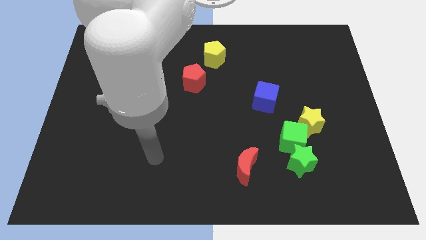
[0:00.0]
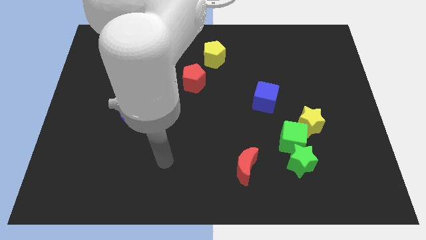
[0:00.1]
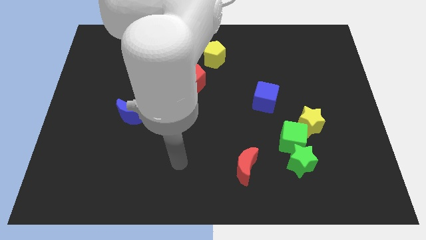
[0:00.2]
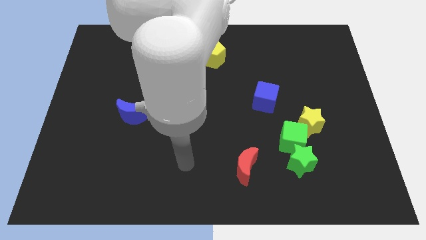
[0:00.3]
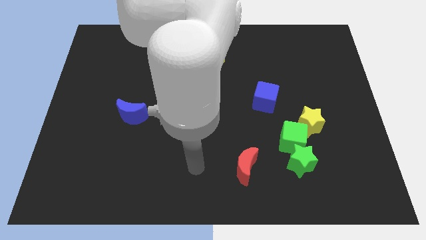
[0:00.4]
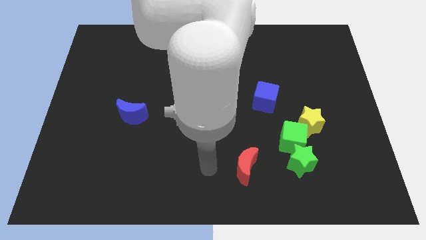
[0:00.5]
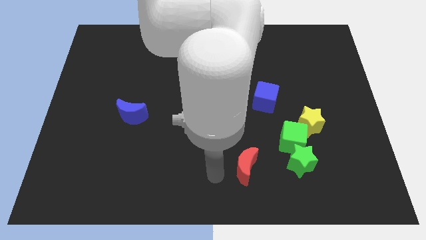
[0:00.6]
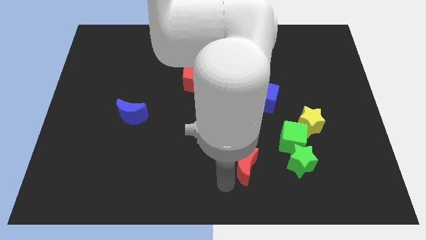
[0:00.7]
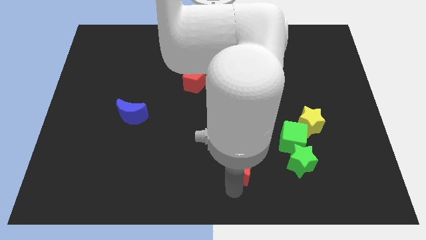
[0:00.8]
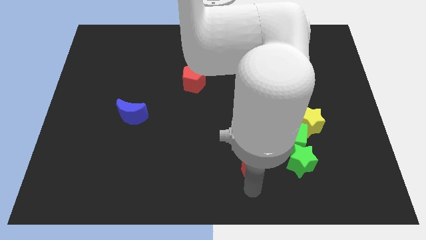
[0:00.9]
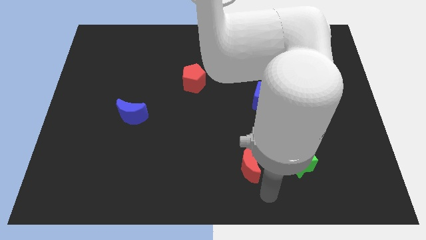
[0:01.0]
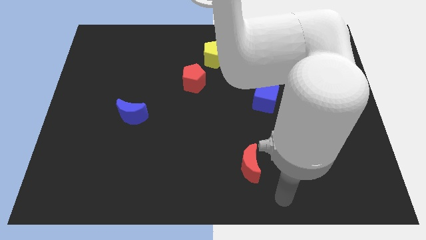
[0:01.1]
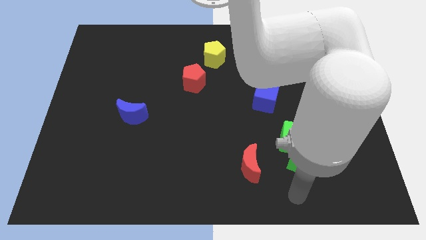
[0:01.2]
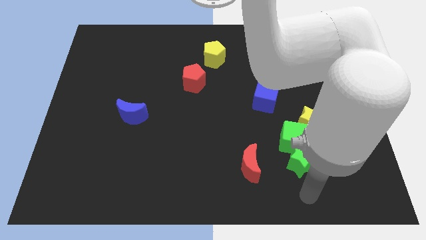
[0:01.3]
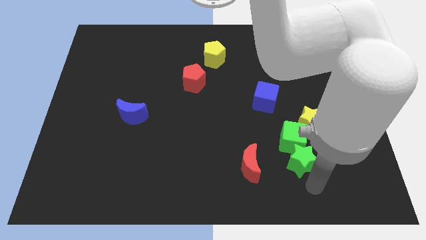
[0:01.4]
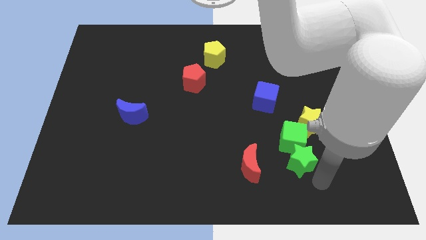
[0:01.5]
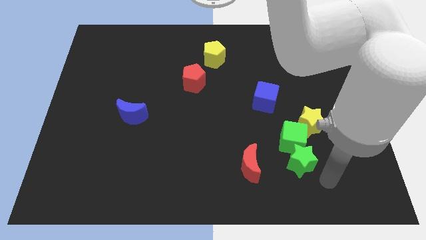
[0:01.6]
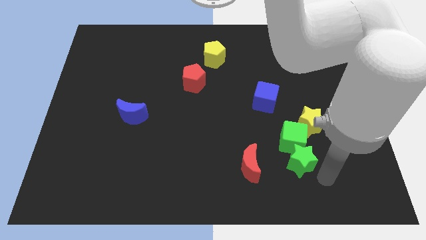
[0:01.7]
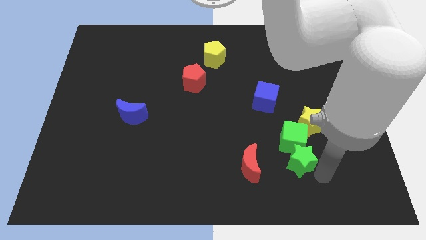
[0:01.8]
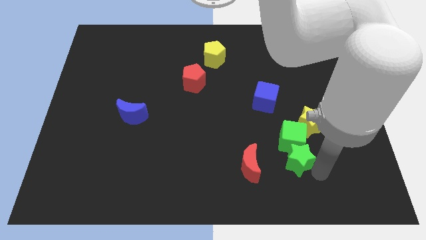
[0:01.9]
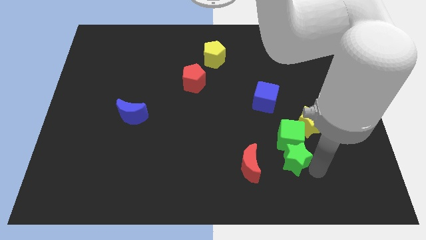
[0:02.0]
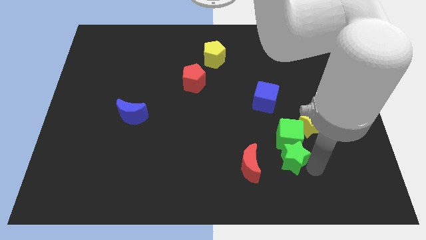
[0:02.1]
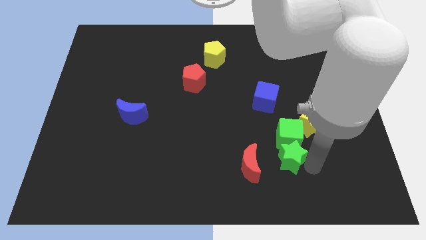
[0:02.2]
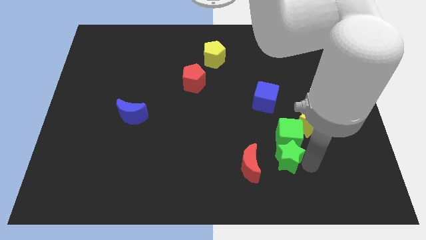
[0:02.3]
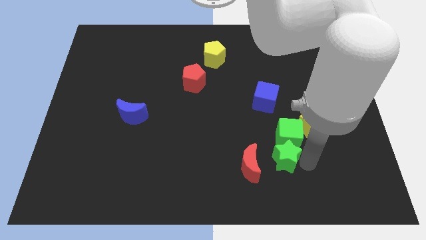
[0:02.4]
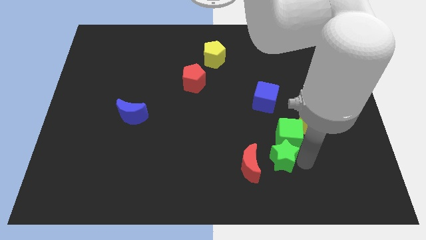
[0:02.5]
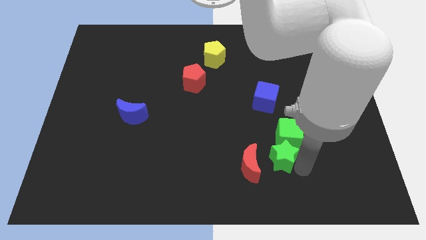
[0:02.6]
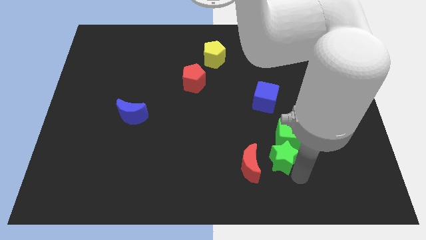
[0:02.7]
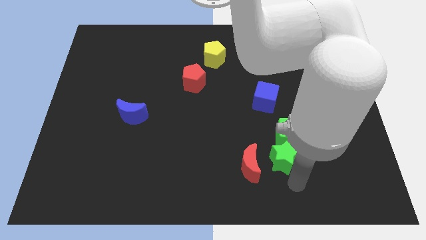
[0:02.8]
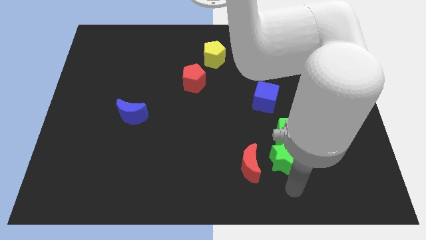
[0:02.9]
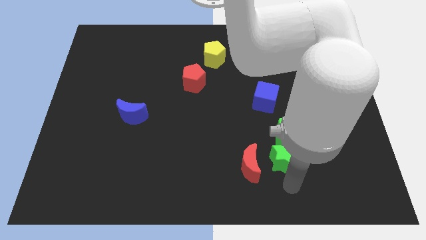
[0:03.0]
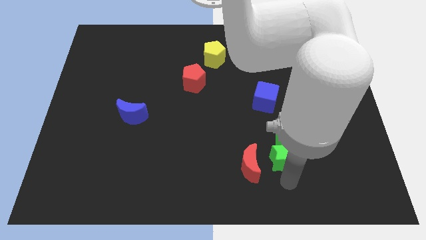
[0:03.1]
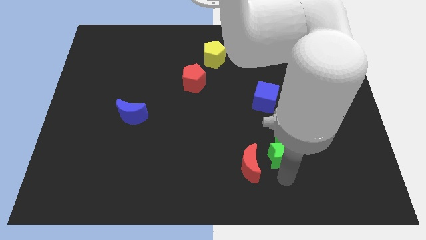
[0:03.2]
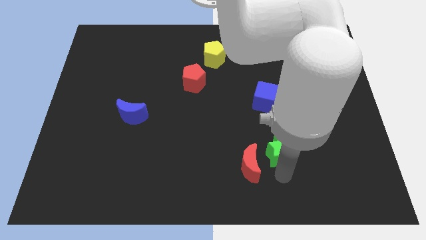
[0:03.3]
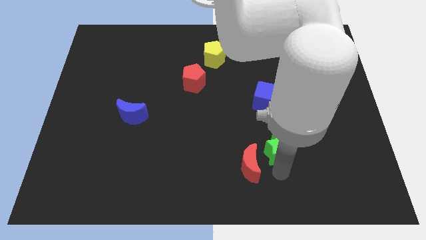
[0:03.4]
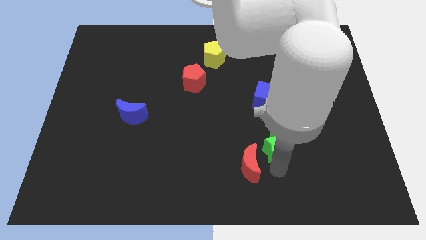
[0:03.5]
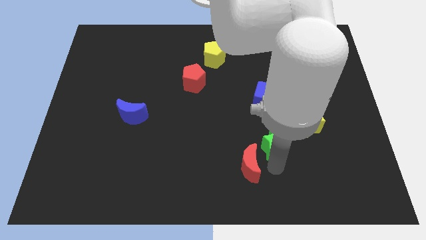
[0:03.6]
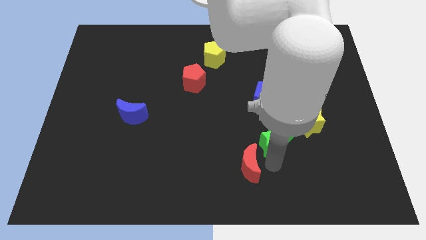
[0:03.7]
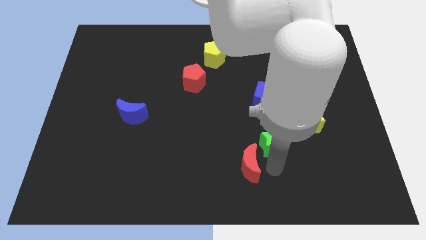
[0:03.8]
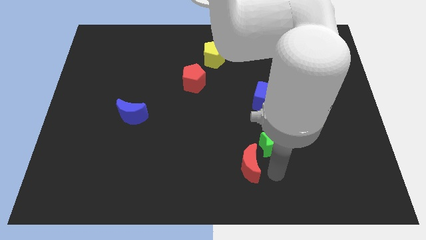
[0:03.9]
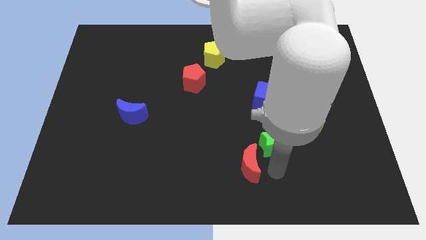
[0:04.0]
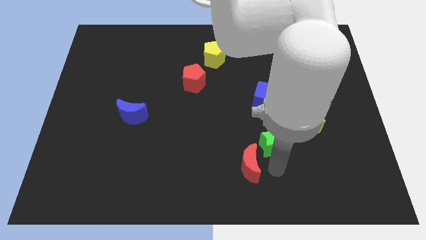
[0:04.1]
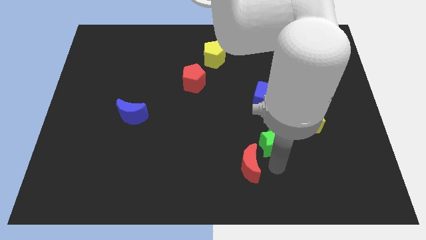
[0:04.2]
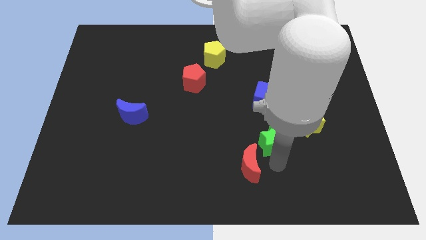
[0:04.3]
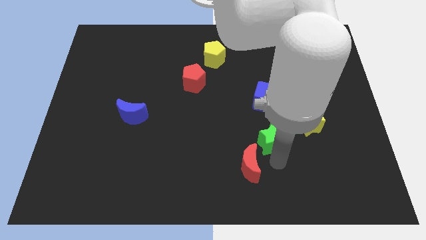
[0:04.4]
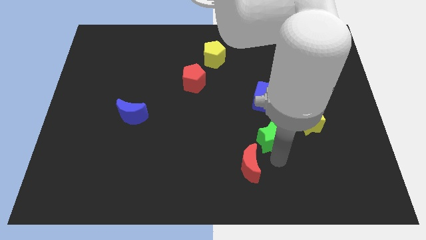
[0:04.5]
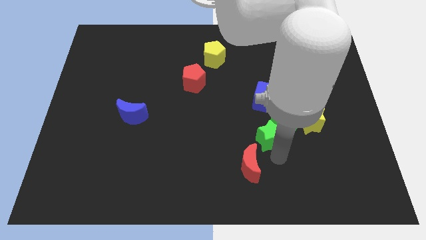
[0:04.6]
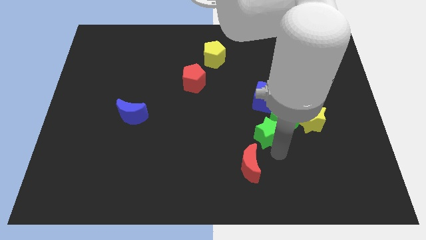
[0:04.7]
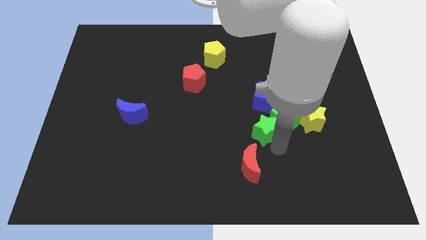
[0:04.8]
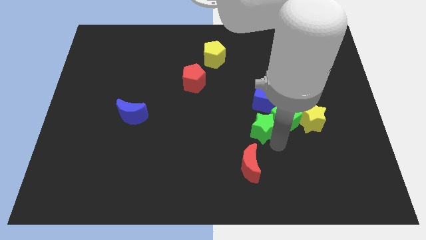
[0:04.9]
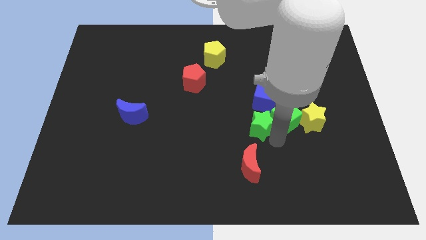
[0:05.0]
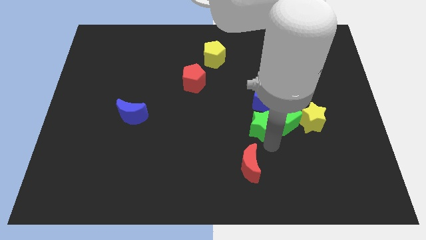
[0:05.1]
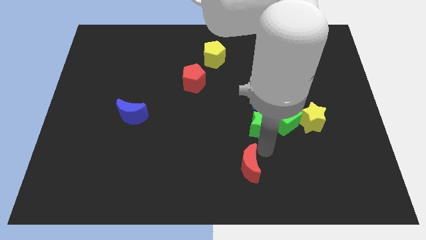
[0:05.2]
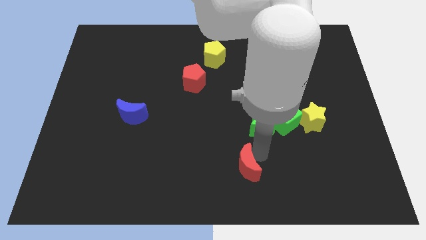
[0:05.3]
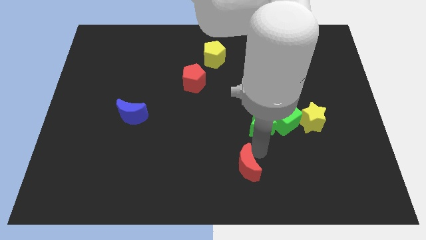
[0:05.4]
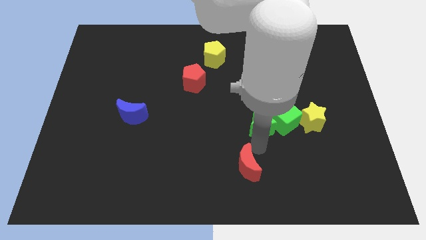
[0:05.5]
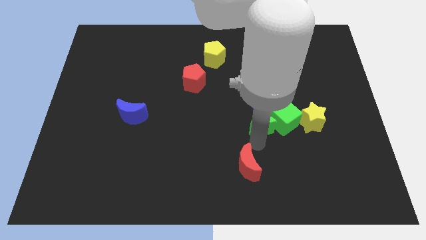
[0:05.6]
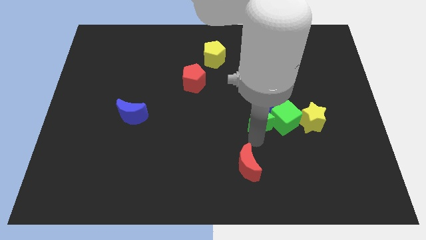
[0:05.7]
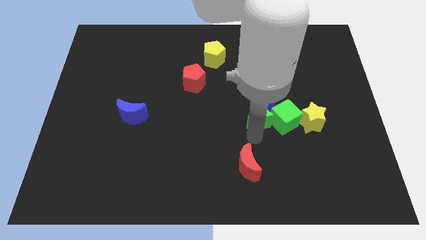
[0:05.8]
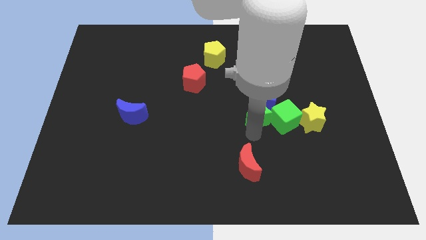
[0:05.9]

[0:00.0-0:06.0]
move the green star to the blue cube

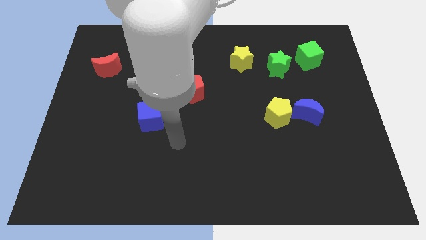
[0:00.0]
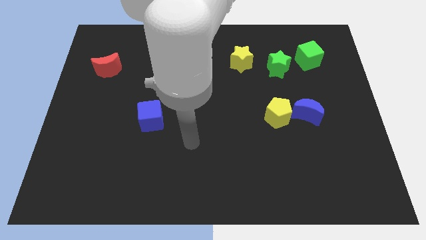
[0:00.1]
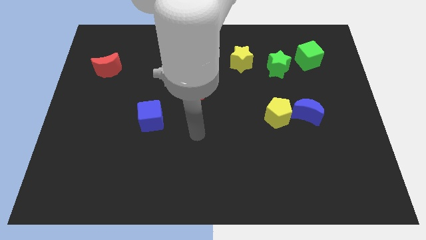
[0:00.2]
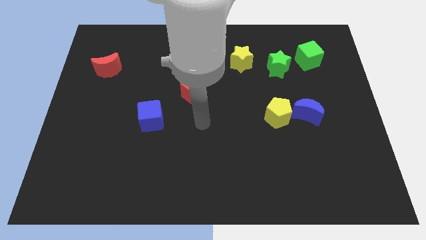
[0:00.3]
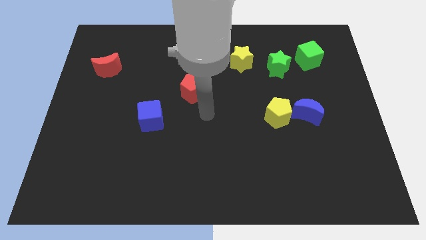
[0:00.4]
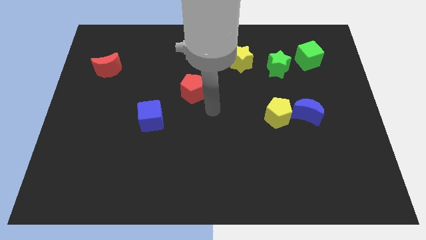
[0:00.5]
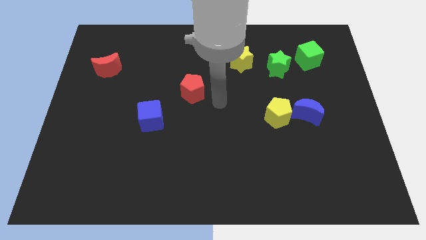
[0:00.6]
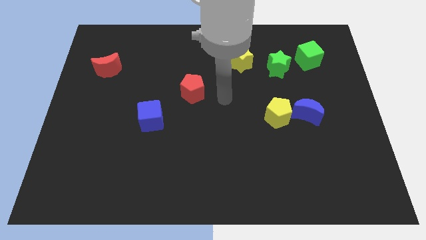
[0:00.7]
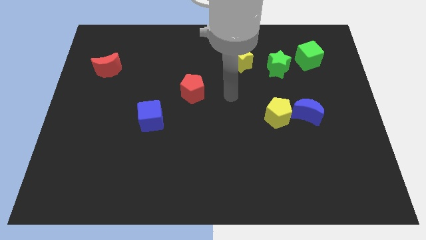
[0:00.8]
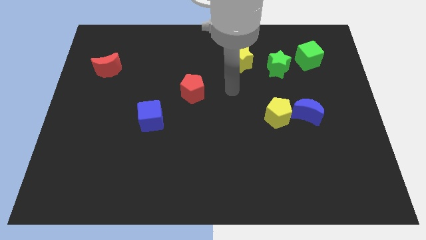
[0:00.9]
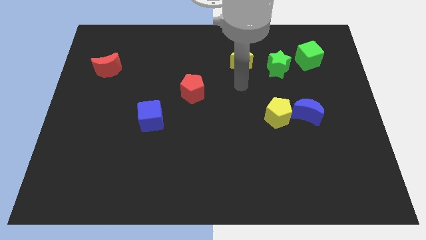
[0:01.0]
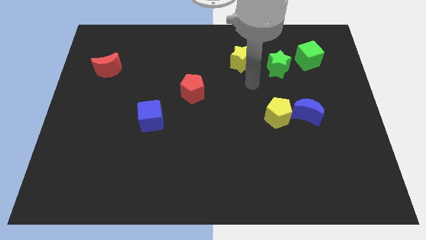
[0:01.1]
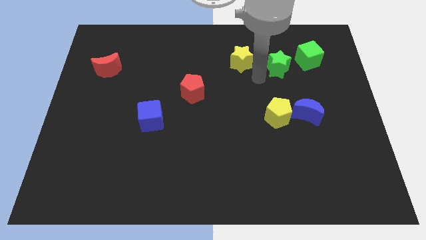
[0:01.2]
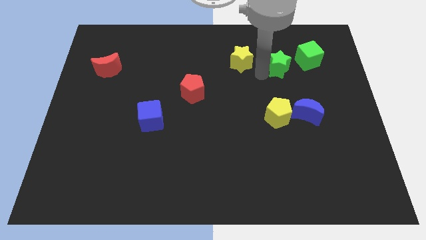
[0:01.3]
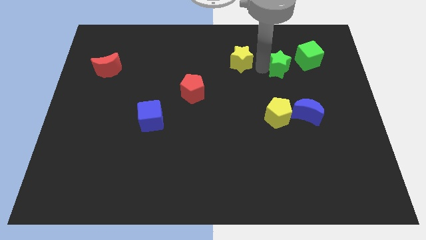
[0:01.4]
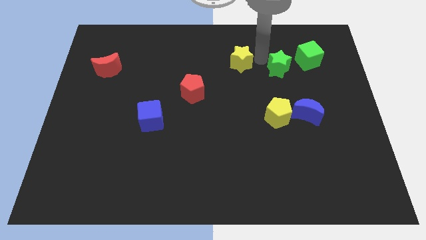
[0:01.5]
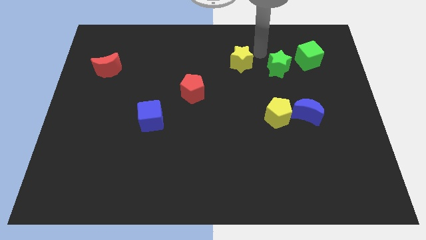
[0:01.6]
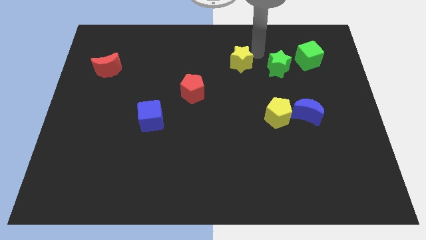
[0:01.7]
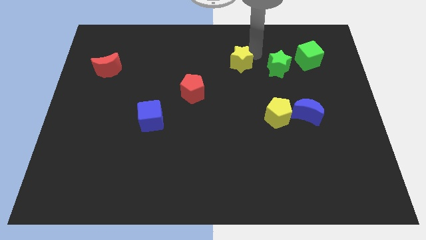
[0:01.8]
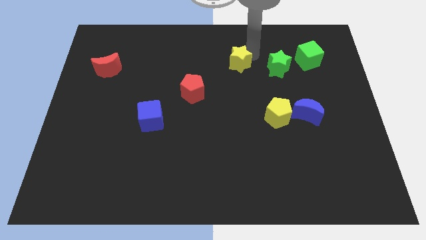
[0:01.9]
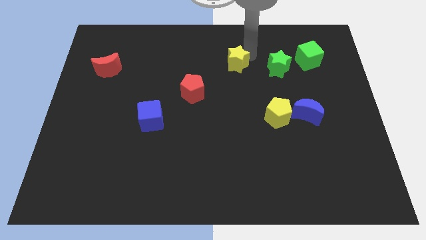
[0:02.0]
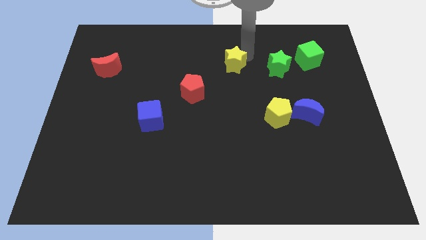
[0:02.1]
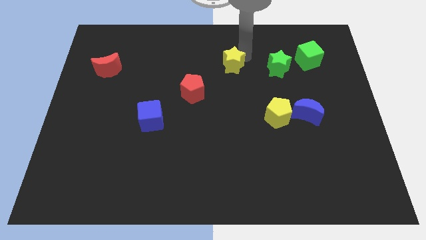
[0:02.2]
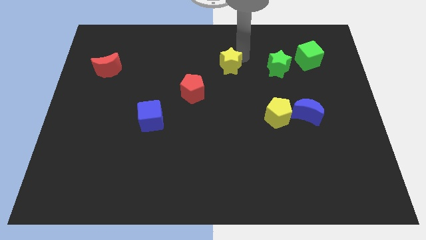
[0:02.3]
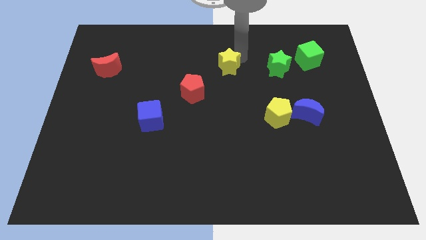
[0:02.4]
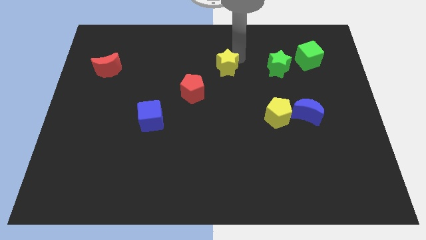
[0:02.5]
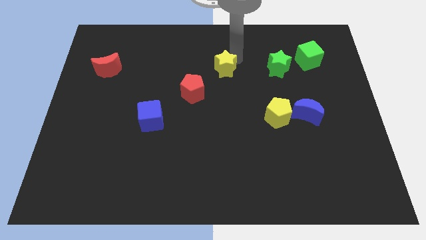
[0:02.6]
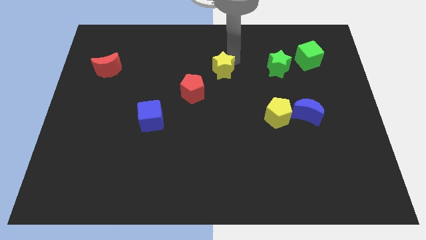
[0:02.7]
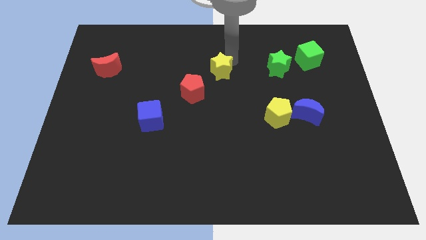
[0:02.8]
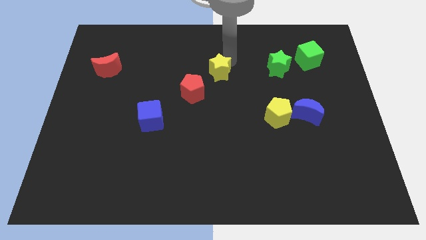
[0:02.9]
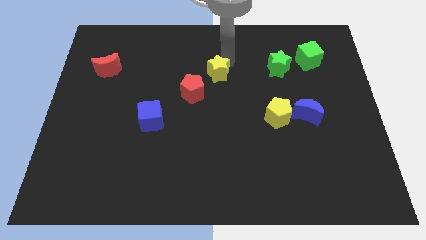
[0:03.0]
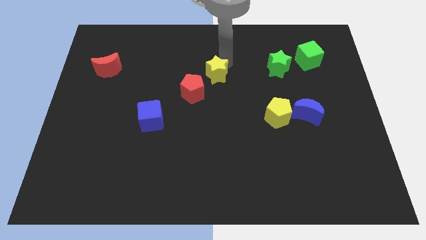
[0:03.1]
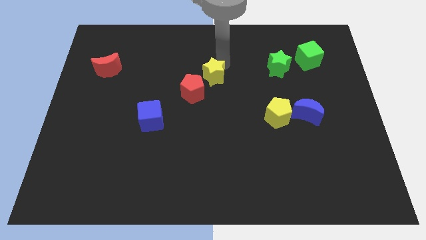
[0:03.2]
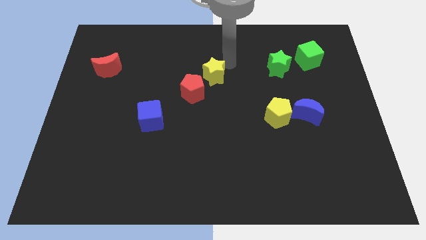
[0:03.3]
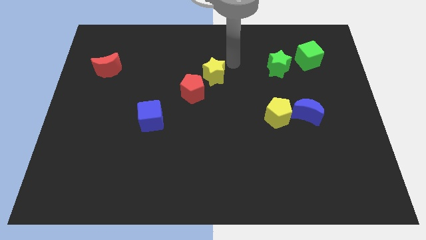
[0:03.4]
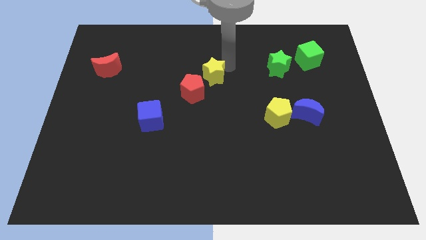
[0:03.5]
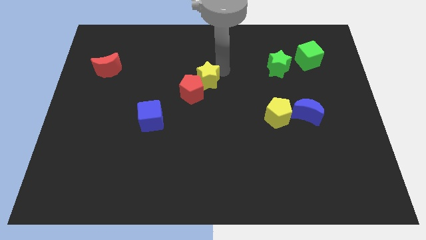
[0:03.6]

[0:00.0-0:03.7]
slide the yellow star next to the red pentagon
